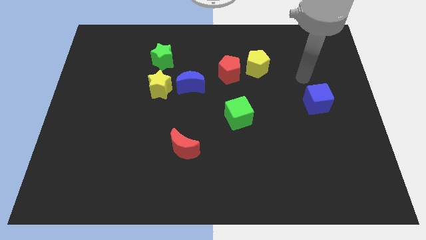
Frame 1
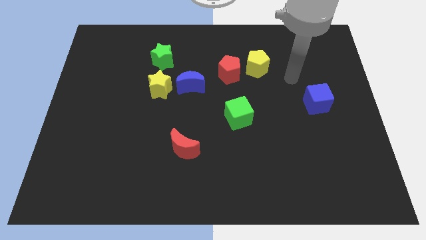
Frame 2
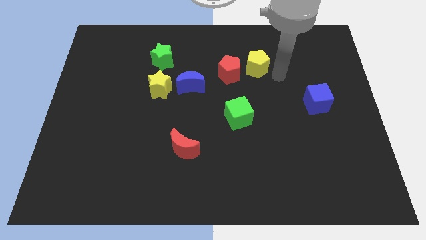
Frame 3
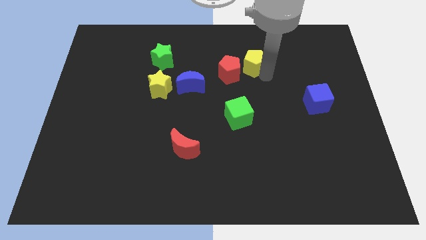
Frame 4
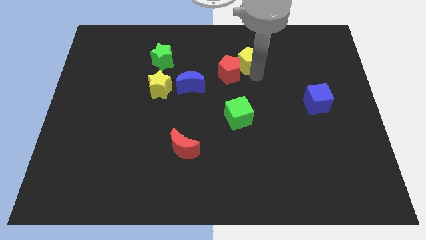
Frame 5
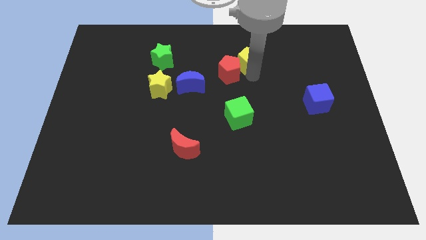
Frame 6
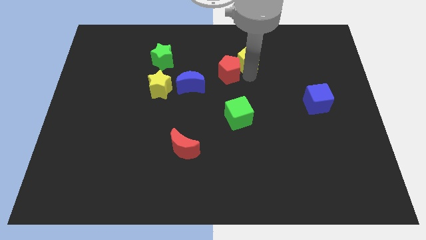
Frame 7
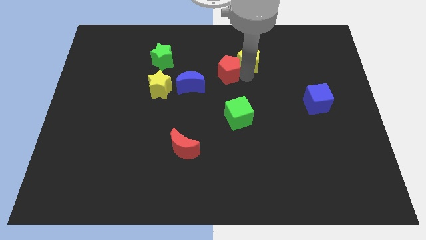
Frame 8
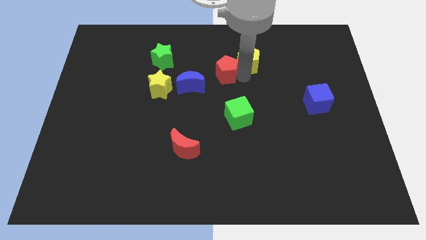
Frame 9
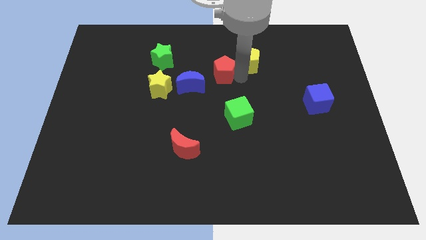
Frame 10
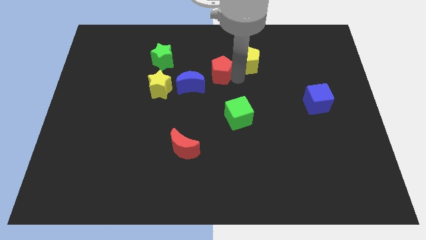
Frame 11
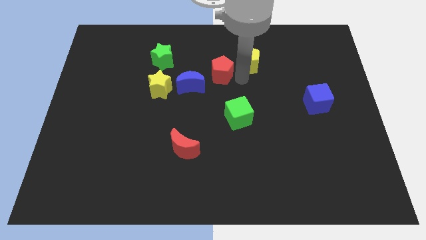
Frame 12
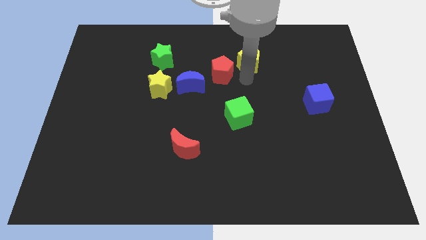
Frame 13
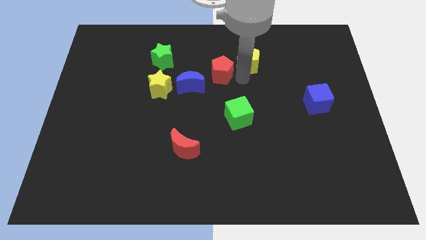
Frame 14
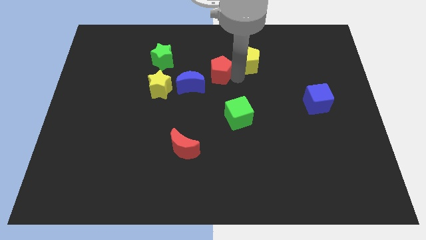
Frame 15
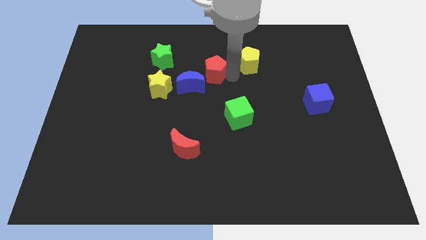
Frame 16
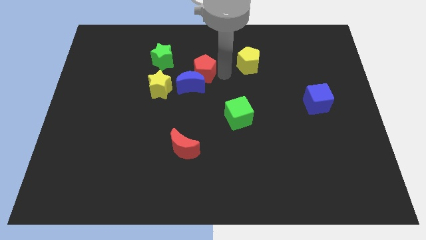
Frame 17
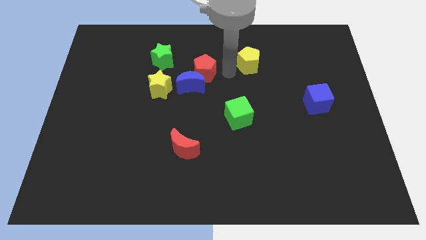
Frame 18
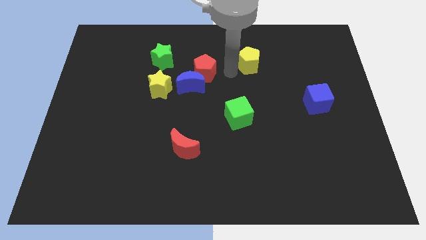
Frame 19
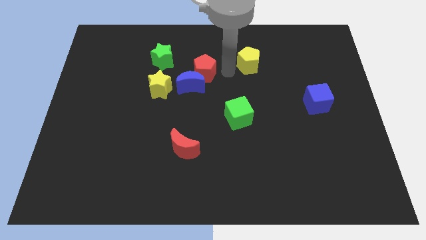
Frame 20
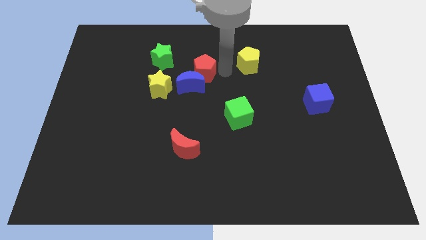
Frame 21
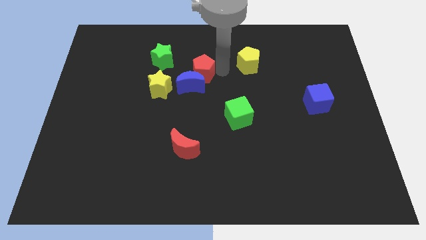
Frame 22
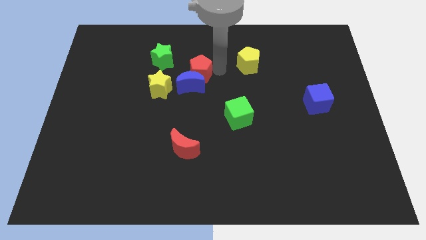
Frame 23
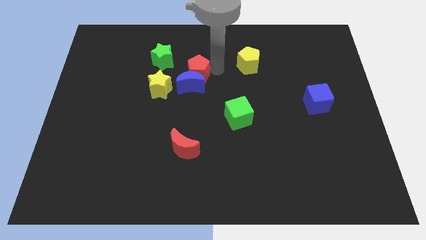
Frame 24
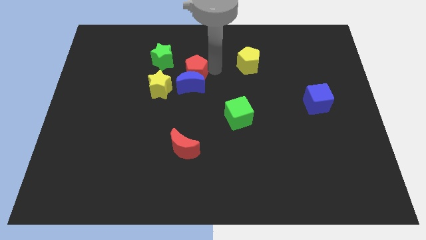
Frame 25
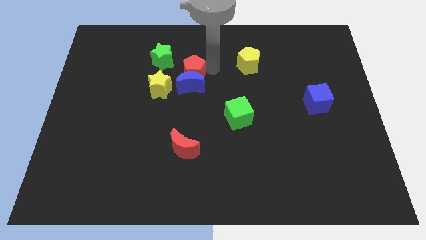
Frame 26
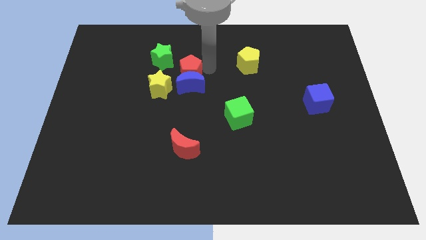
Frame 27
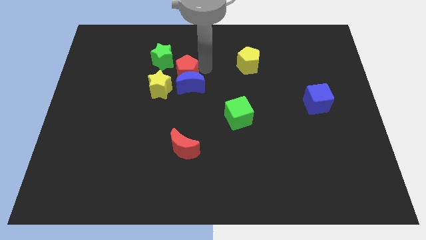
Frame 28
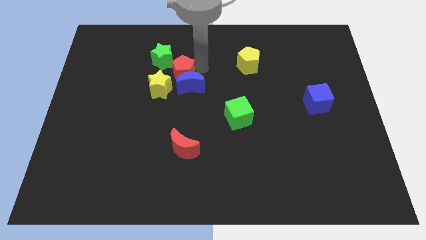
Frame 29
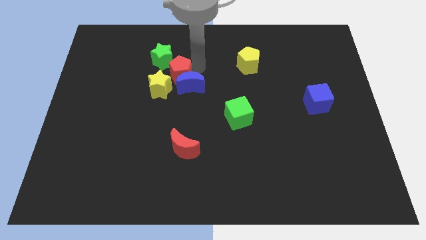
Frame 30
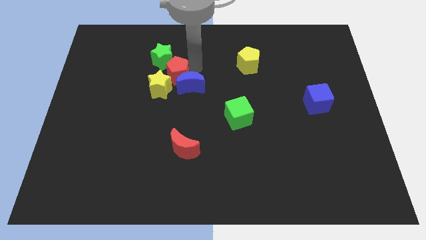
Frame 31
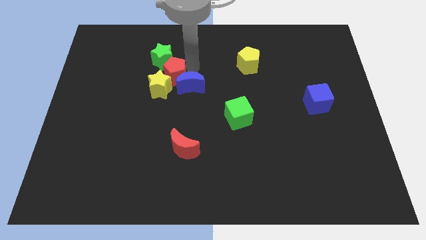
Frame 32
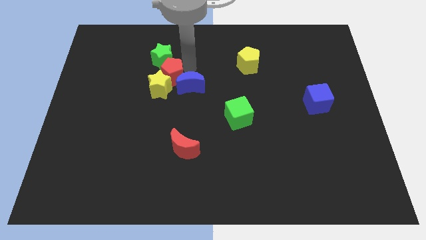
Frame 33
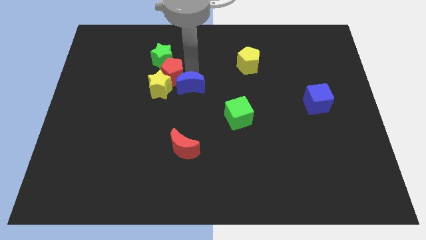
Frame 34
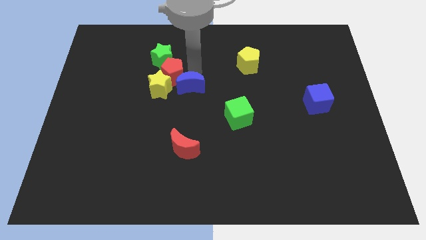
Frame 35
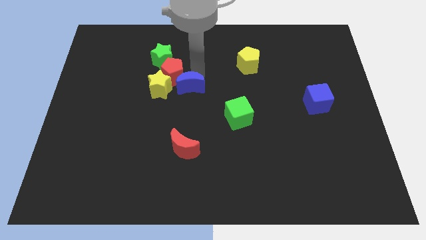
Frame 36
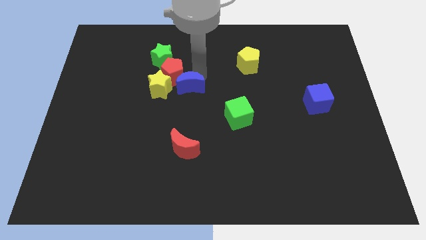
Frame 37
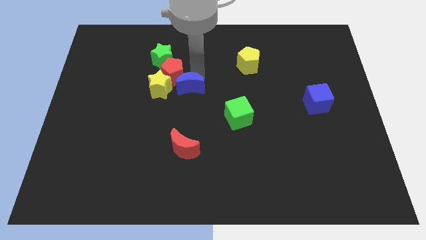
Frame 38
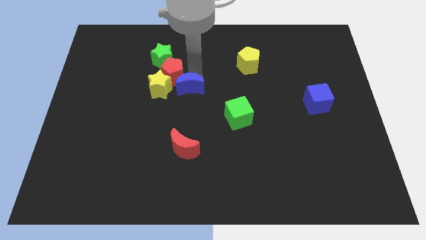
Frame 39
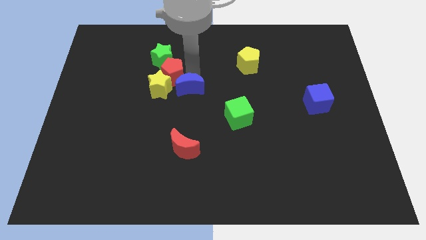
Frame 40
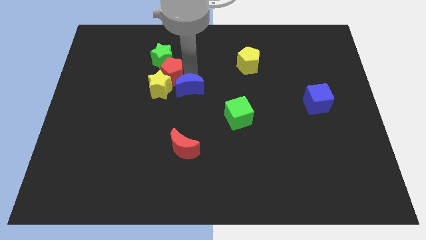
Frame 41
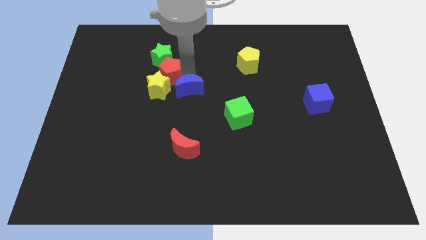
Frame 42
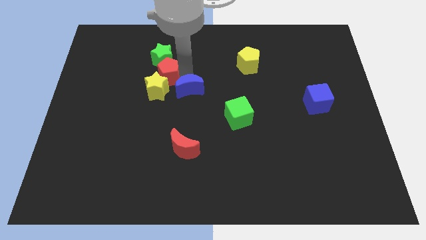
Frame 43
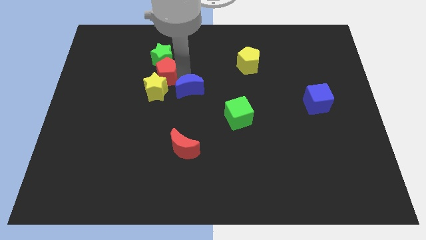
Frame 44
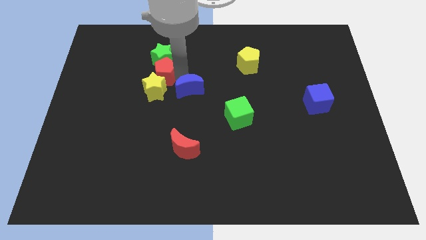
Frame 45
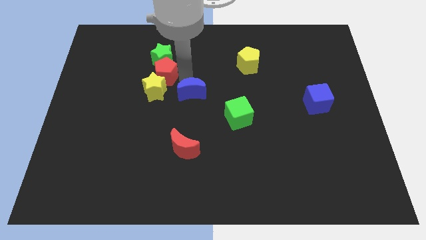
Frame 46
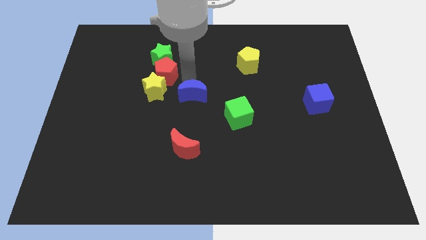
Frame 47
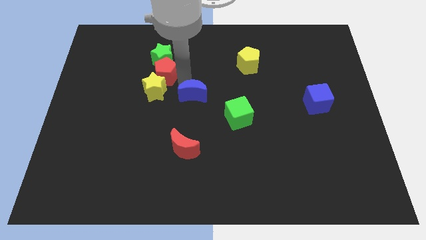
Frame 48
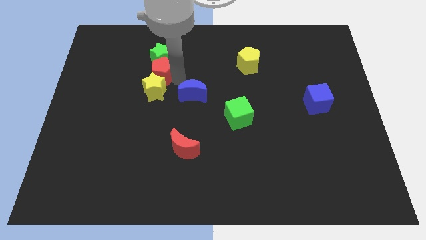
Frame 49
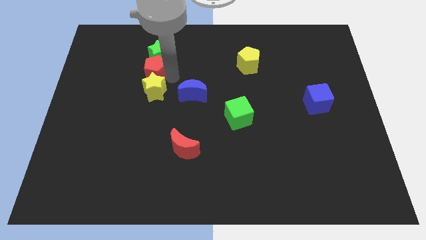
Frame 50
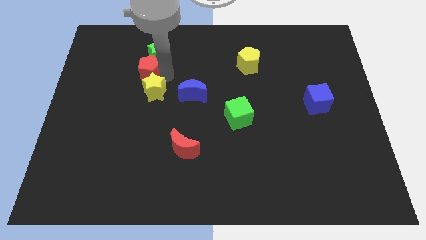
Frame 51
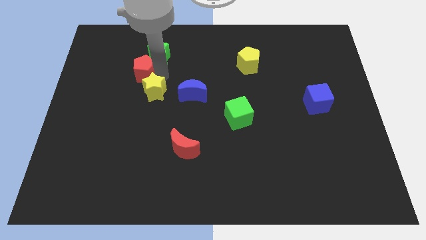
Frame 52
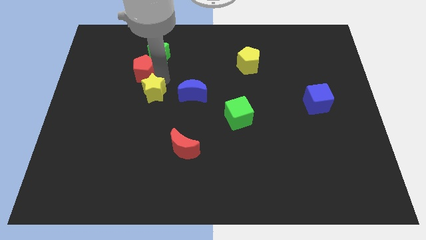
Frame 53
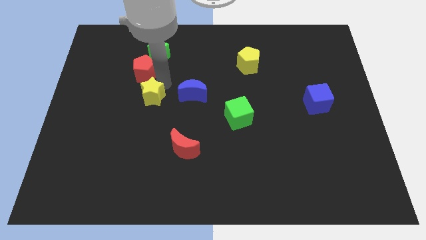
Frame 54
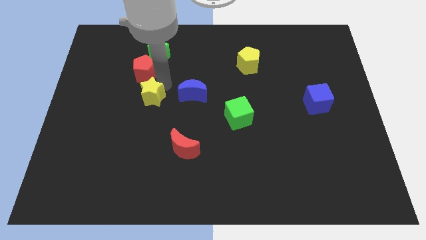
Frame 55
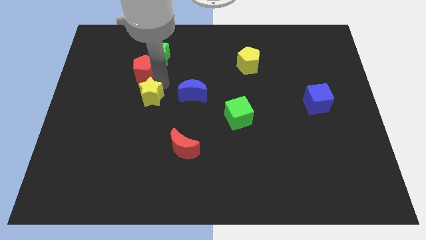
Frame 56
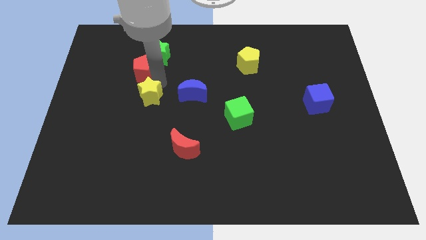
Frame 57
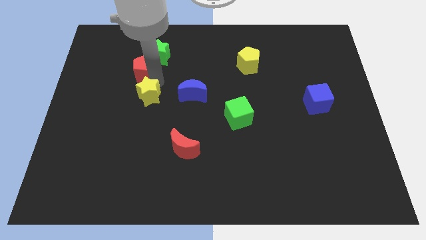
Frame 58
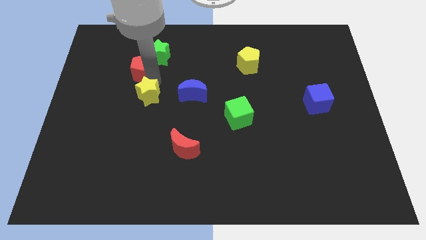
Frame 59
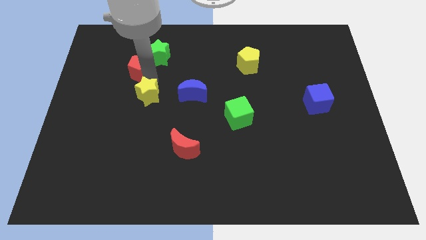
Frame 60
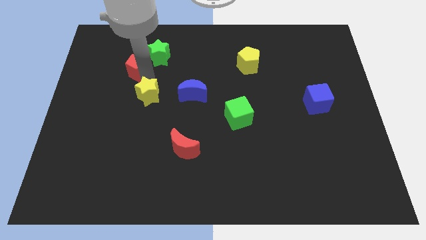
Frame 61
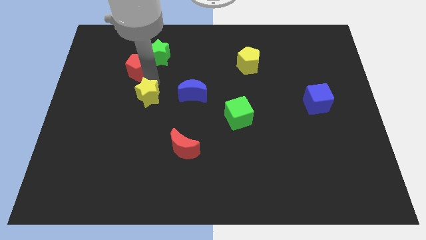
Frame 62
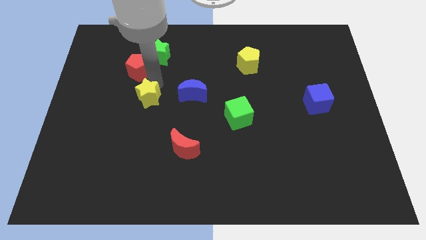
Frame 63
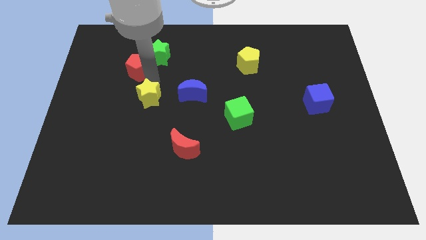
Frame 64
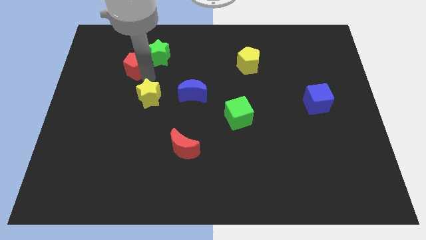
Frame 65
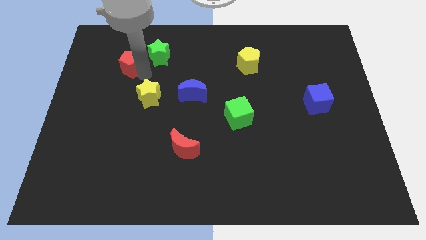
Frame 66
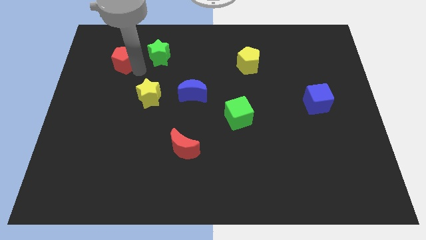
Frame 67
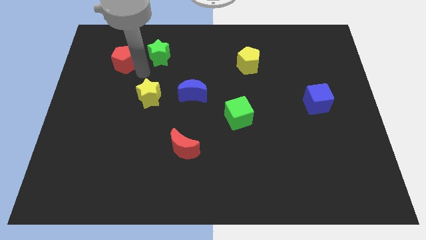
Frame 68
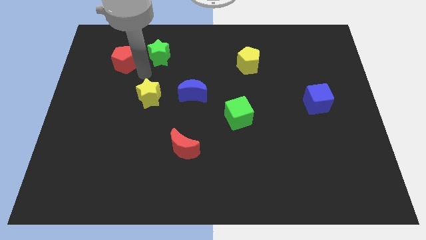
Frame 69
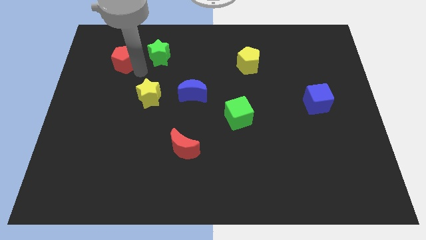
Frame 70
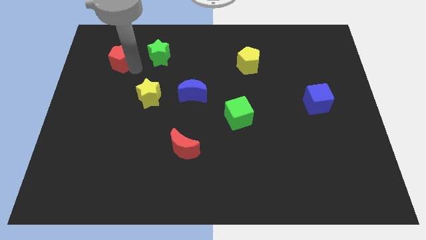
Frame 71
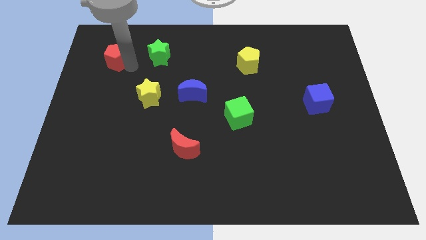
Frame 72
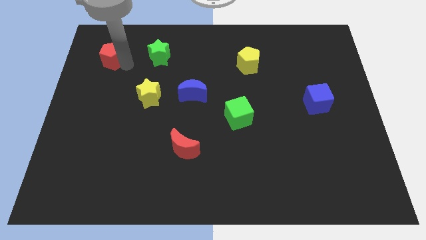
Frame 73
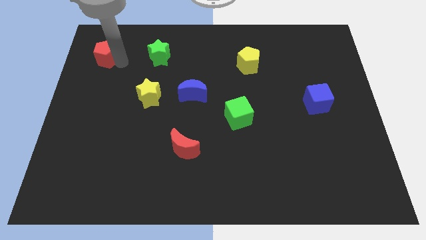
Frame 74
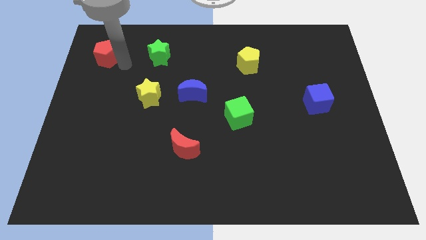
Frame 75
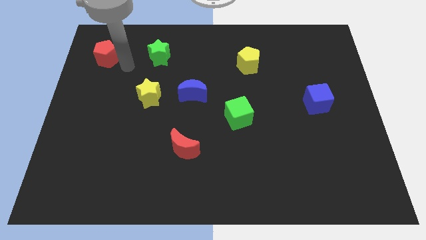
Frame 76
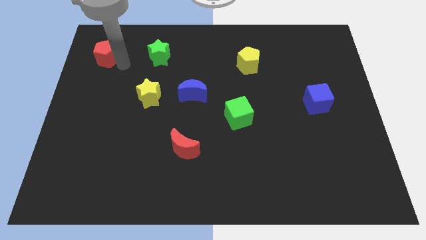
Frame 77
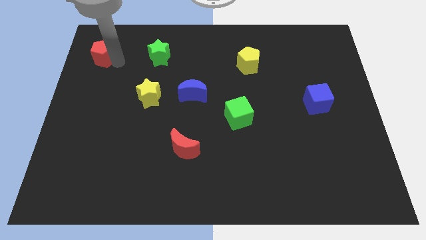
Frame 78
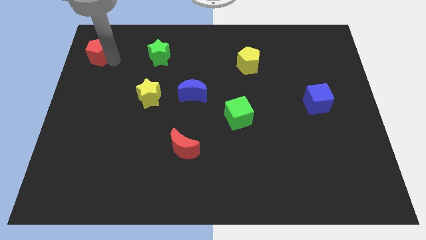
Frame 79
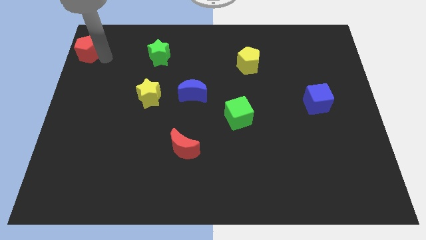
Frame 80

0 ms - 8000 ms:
push the red pentagon to the upper left corner
